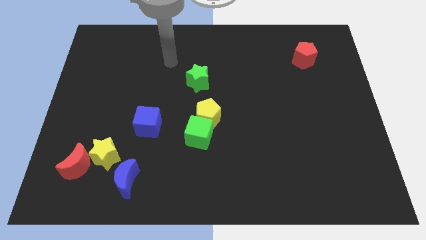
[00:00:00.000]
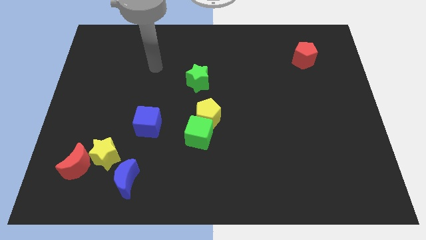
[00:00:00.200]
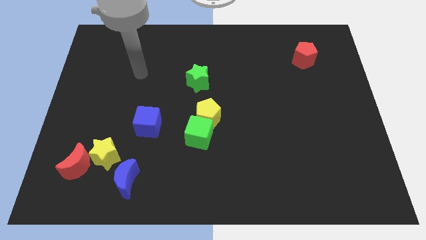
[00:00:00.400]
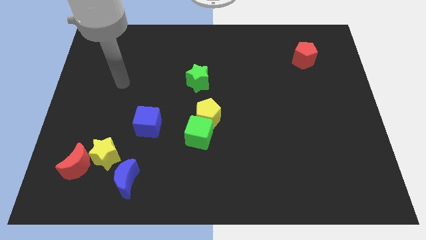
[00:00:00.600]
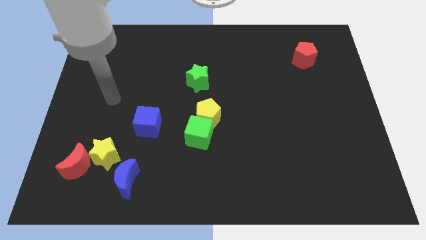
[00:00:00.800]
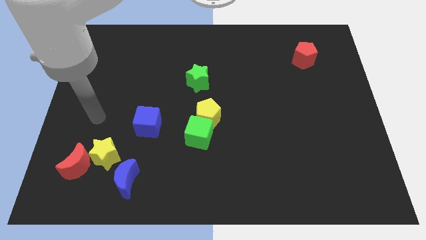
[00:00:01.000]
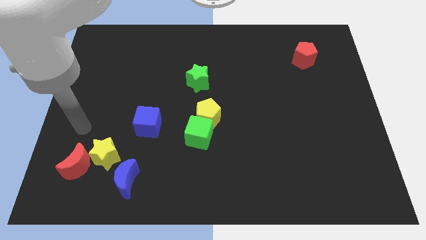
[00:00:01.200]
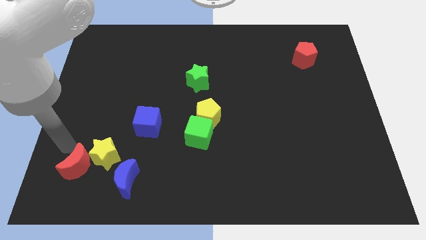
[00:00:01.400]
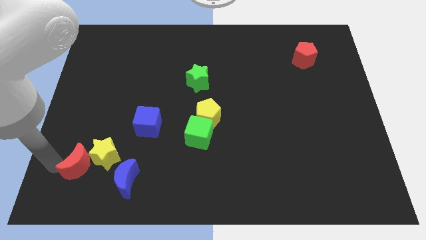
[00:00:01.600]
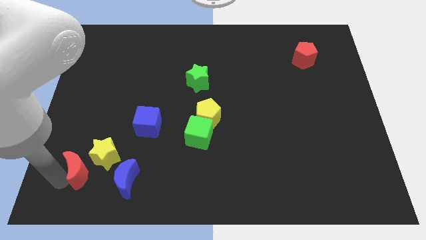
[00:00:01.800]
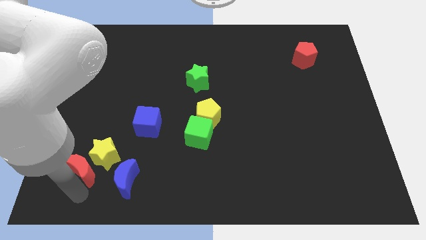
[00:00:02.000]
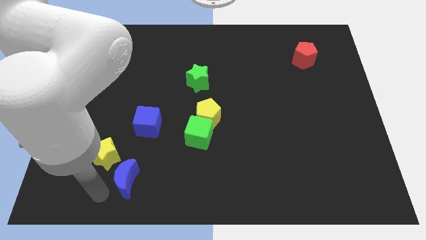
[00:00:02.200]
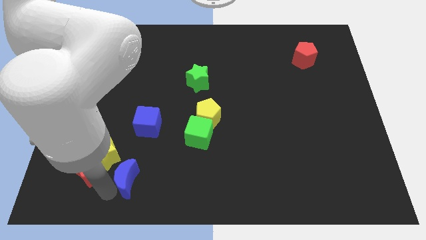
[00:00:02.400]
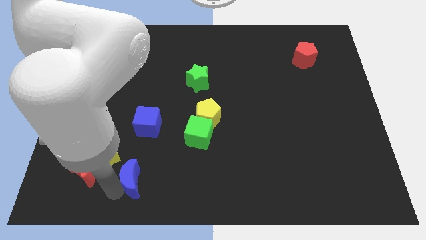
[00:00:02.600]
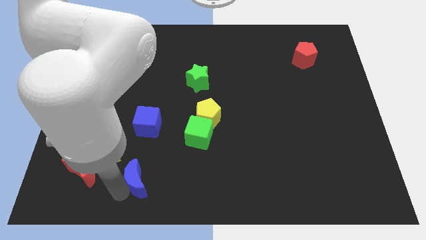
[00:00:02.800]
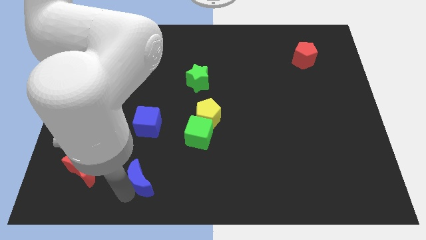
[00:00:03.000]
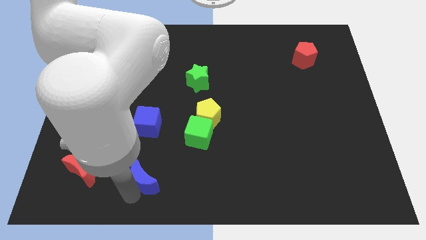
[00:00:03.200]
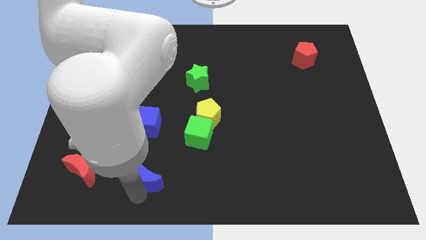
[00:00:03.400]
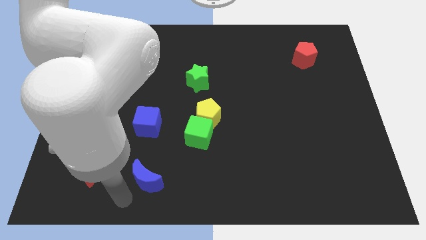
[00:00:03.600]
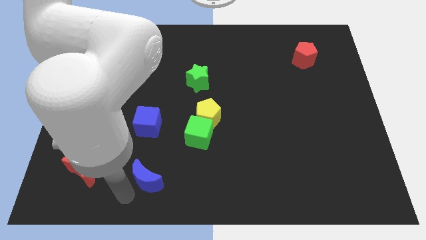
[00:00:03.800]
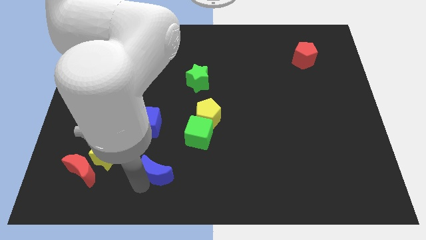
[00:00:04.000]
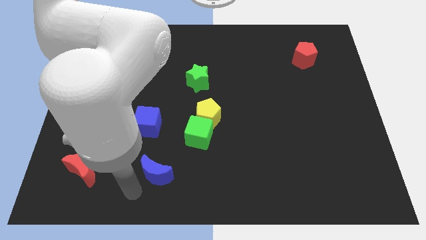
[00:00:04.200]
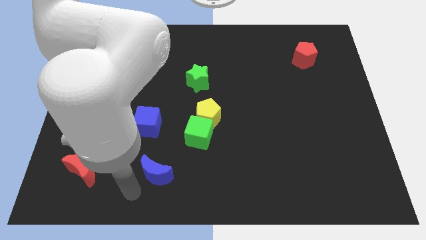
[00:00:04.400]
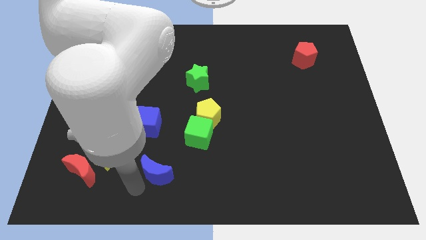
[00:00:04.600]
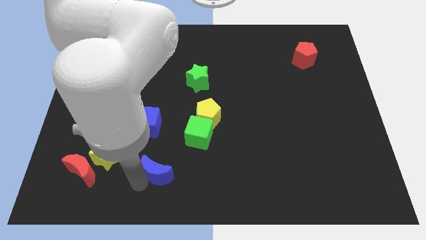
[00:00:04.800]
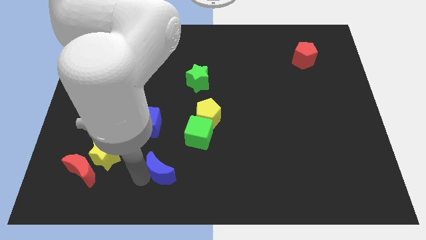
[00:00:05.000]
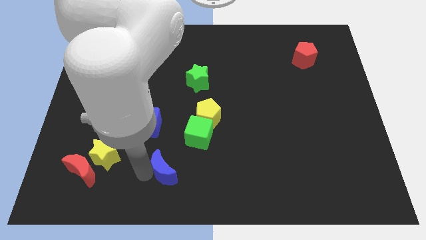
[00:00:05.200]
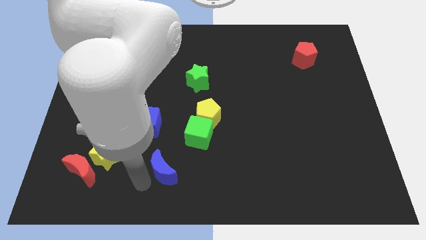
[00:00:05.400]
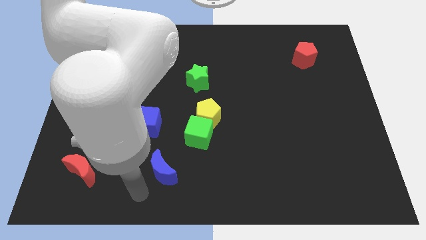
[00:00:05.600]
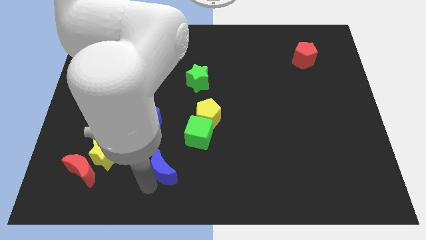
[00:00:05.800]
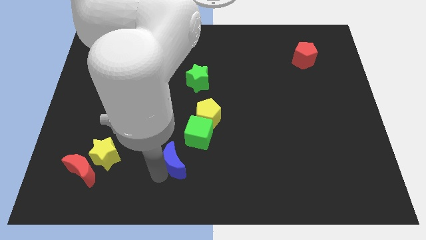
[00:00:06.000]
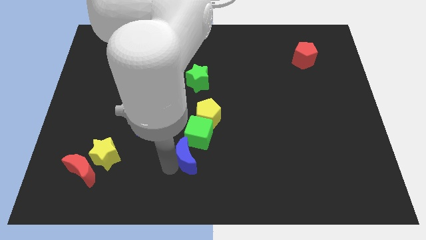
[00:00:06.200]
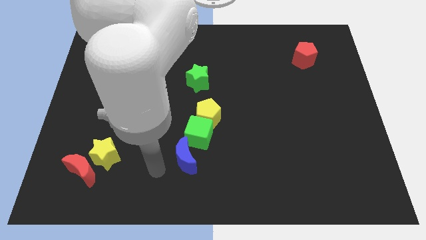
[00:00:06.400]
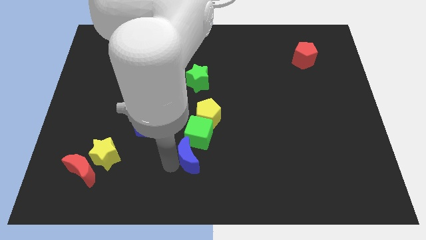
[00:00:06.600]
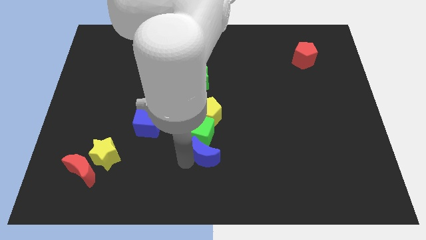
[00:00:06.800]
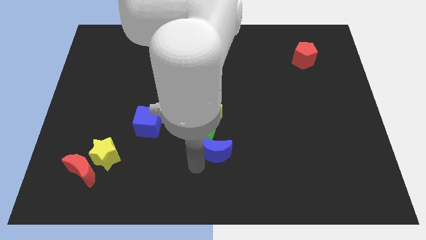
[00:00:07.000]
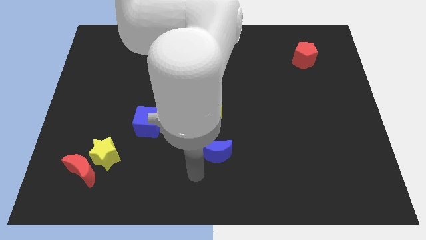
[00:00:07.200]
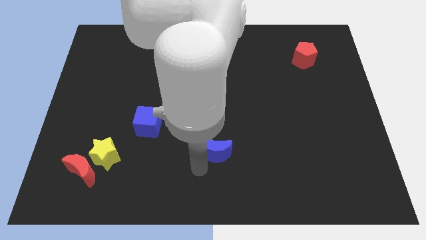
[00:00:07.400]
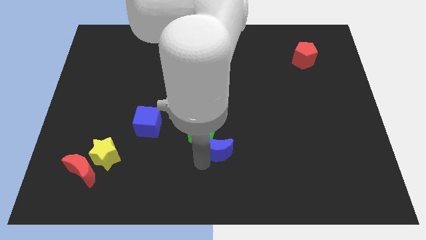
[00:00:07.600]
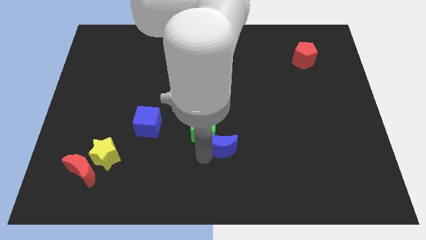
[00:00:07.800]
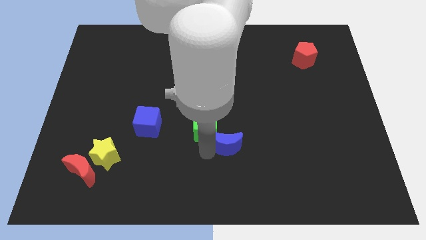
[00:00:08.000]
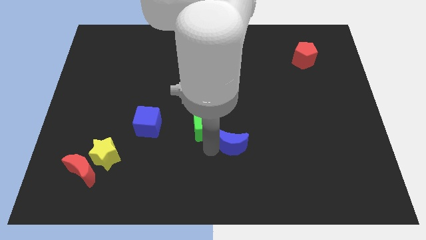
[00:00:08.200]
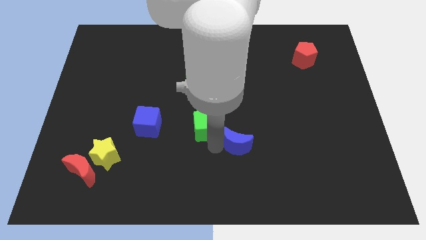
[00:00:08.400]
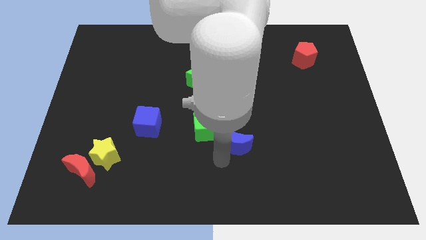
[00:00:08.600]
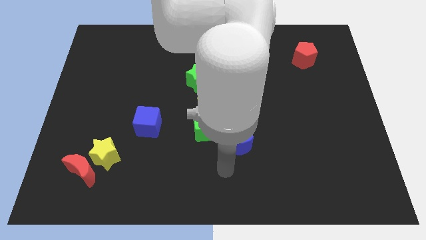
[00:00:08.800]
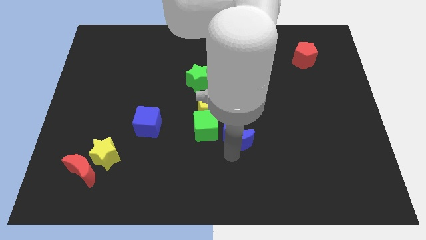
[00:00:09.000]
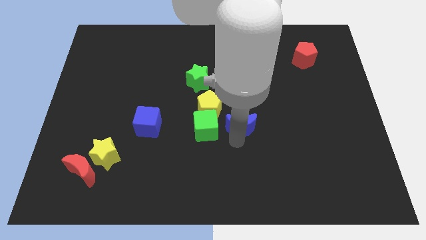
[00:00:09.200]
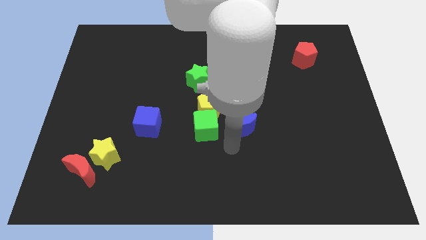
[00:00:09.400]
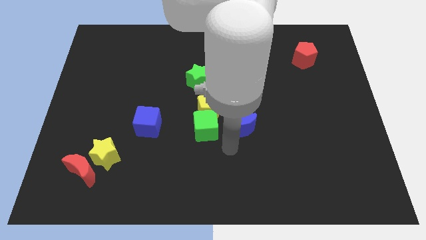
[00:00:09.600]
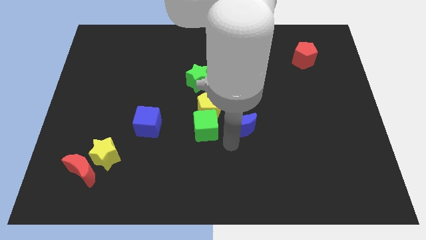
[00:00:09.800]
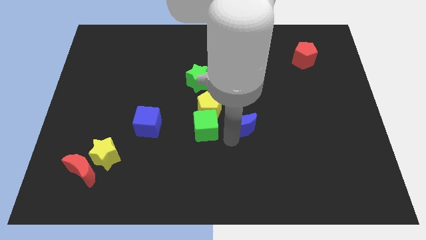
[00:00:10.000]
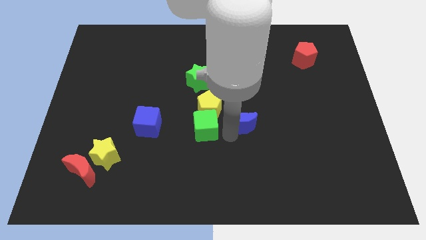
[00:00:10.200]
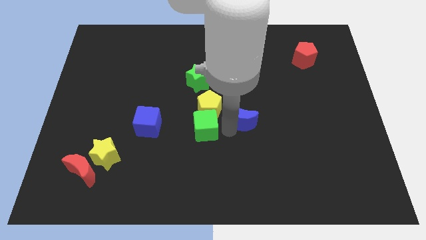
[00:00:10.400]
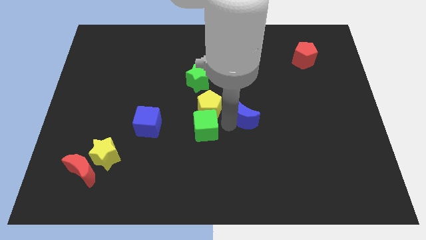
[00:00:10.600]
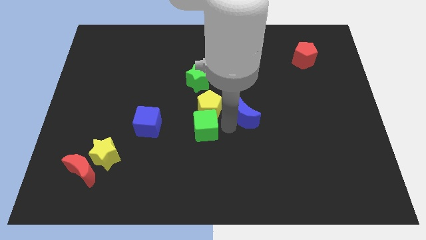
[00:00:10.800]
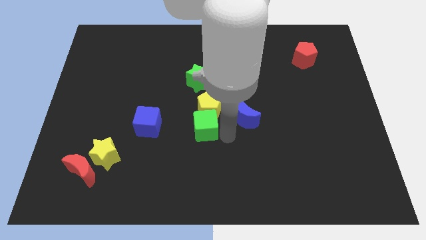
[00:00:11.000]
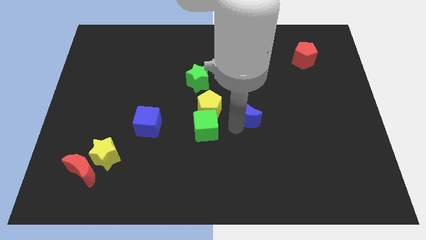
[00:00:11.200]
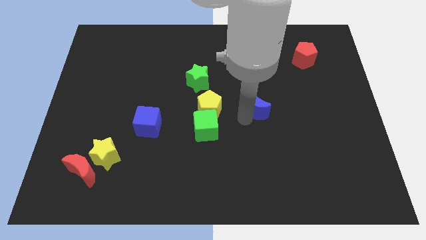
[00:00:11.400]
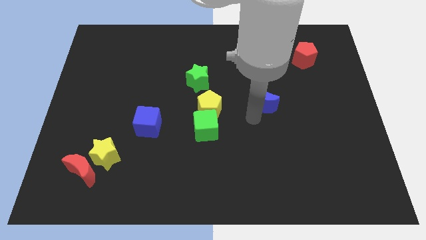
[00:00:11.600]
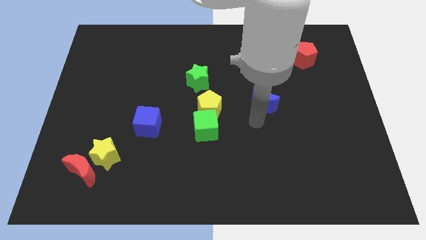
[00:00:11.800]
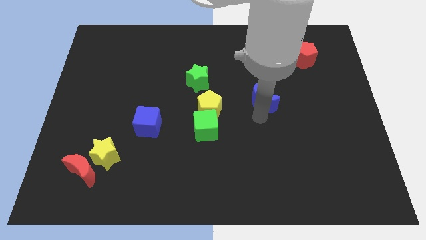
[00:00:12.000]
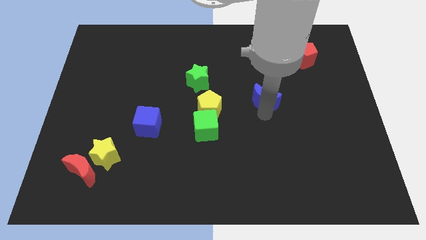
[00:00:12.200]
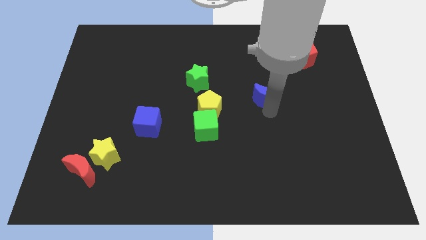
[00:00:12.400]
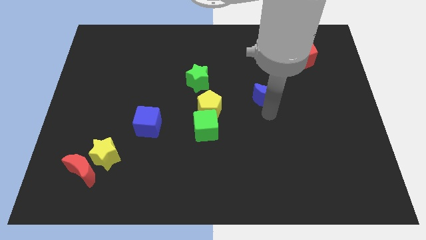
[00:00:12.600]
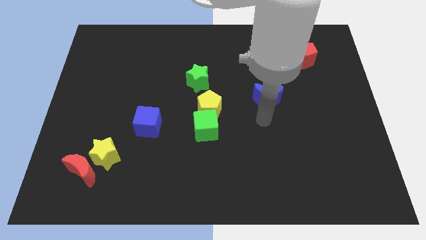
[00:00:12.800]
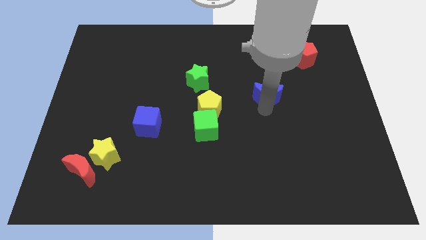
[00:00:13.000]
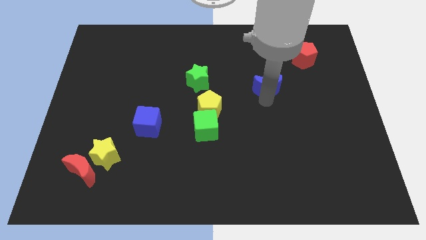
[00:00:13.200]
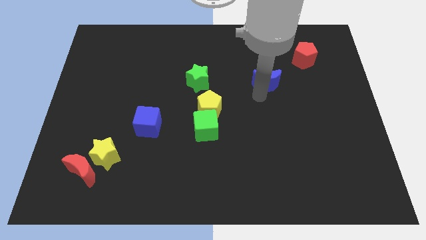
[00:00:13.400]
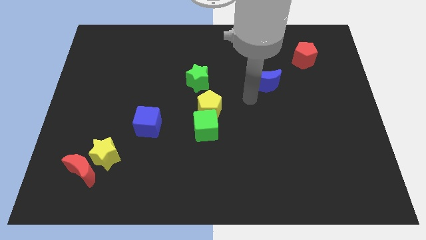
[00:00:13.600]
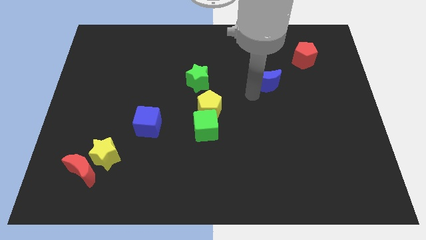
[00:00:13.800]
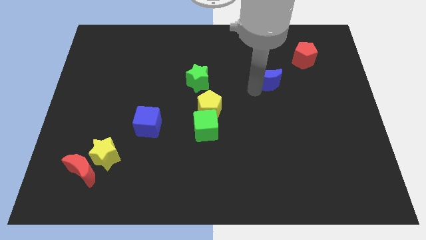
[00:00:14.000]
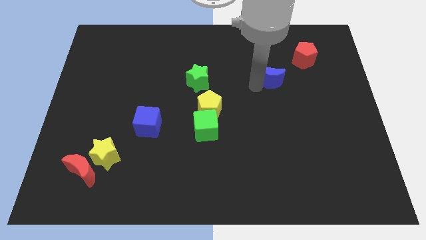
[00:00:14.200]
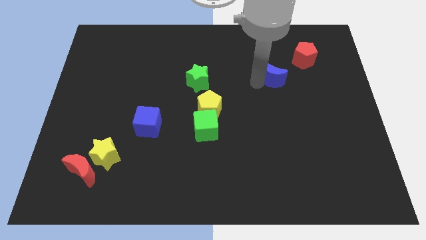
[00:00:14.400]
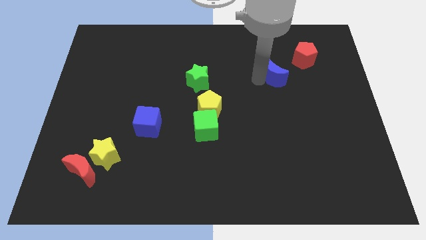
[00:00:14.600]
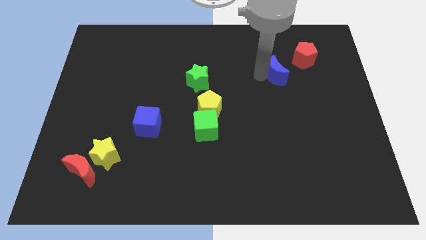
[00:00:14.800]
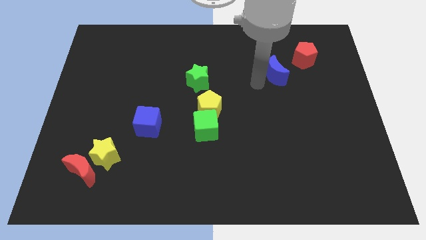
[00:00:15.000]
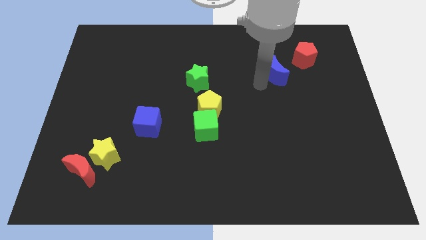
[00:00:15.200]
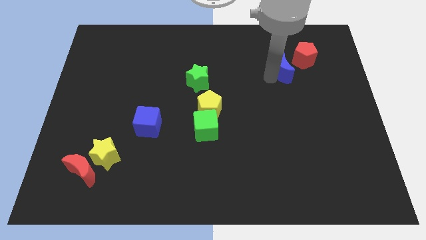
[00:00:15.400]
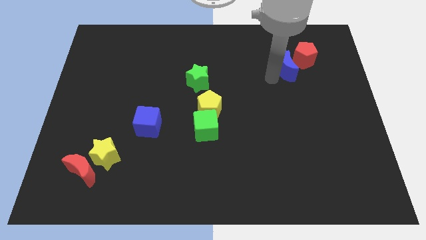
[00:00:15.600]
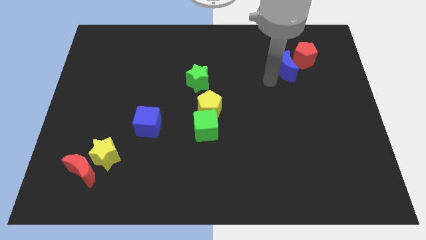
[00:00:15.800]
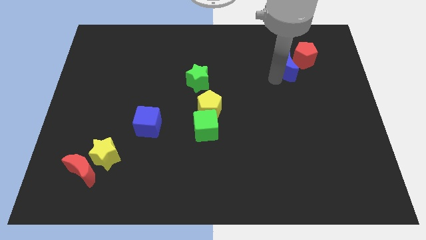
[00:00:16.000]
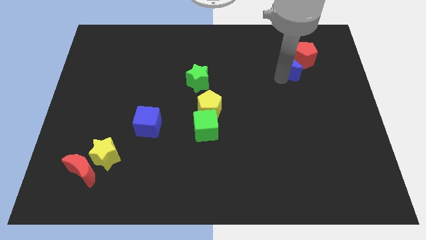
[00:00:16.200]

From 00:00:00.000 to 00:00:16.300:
push the blue moon towards the red pentagon
